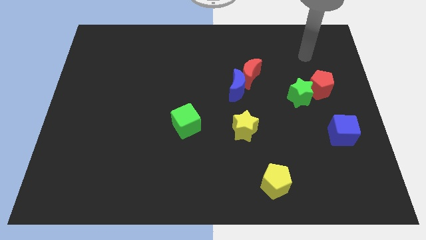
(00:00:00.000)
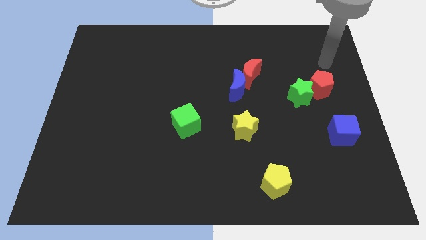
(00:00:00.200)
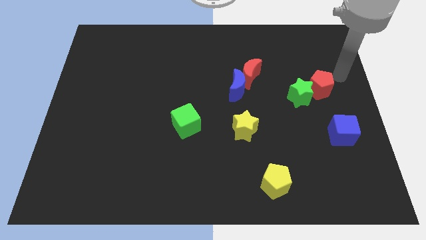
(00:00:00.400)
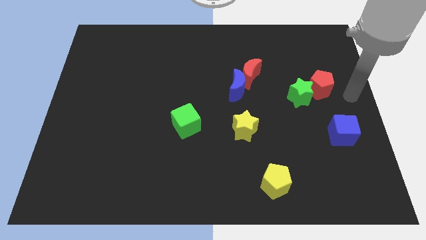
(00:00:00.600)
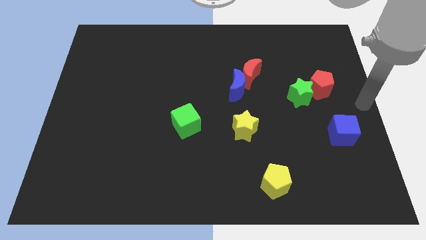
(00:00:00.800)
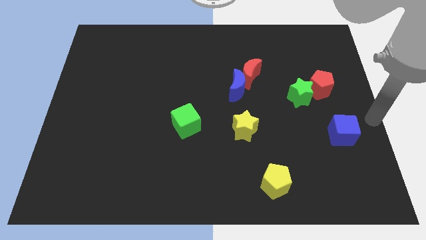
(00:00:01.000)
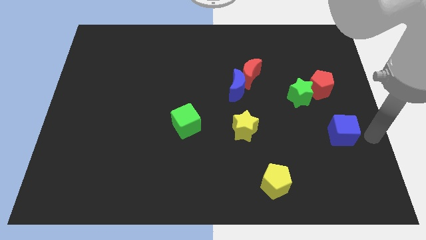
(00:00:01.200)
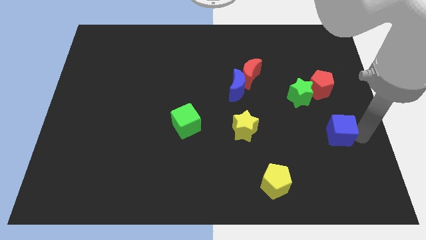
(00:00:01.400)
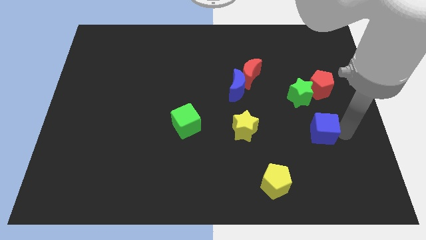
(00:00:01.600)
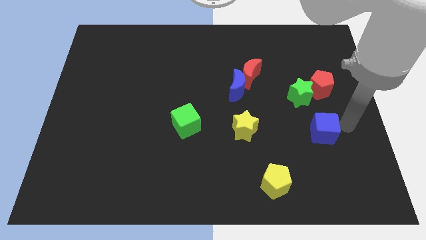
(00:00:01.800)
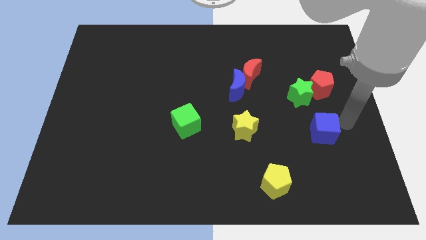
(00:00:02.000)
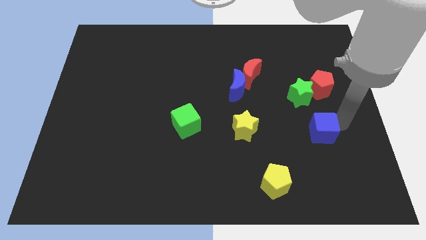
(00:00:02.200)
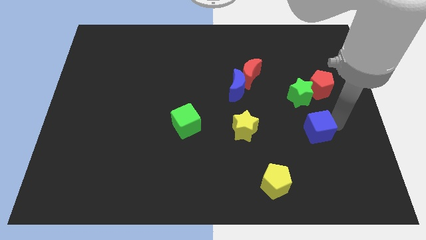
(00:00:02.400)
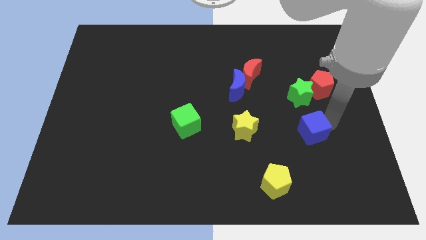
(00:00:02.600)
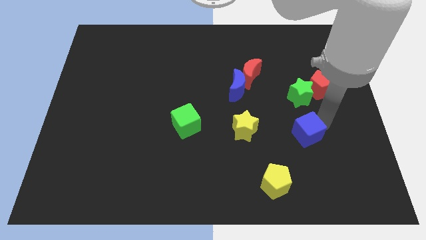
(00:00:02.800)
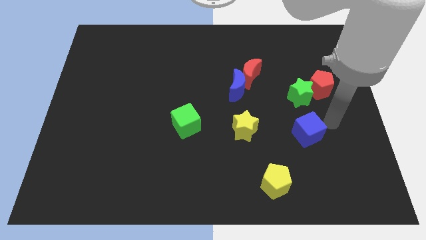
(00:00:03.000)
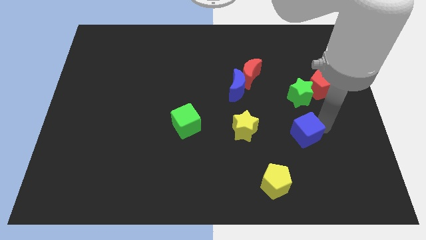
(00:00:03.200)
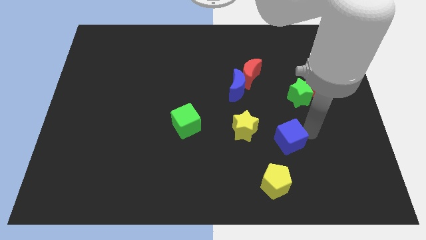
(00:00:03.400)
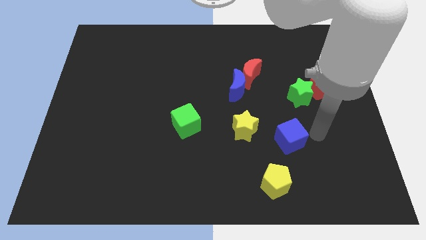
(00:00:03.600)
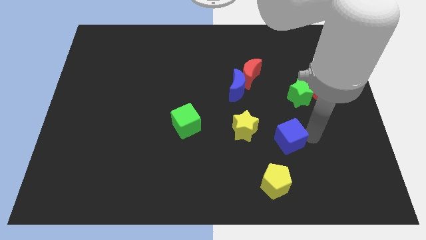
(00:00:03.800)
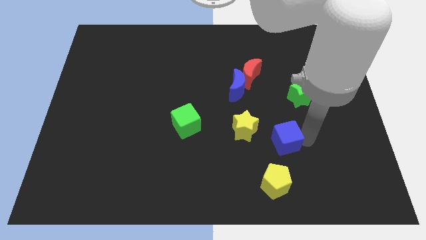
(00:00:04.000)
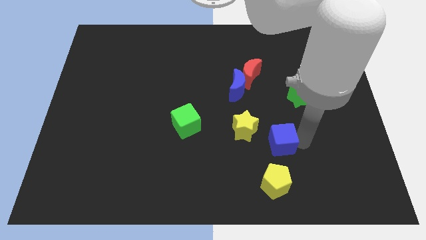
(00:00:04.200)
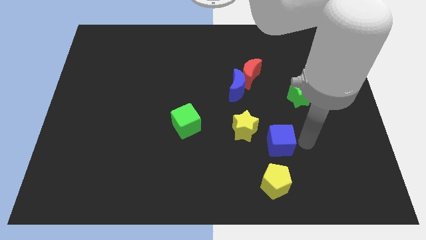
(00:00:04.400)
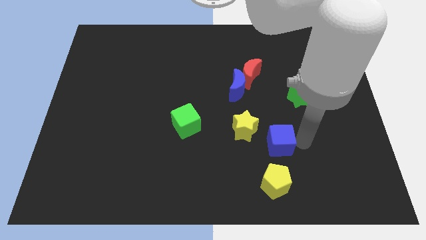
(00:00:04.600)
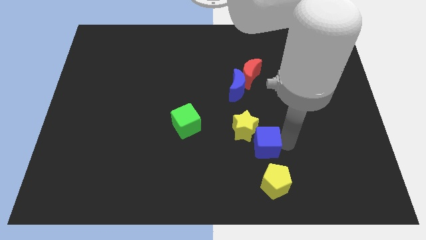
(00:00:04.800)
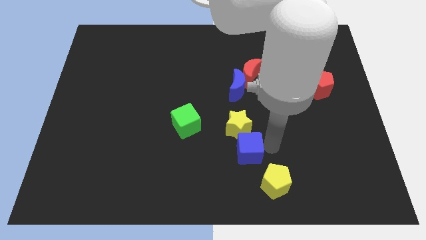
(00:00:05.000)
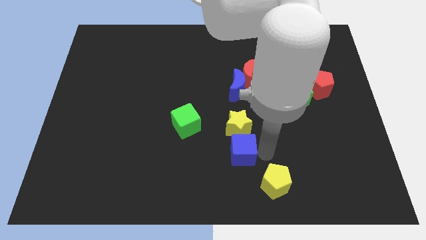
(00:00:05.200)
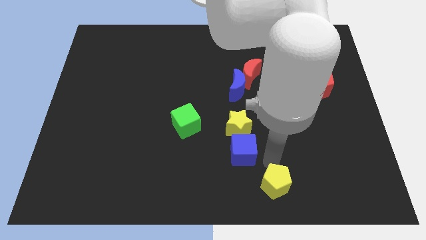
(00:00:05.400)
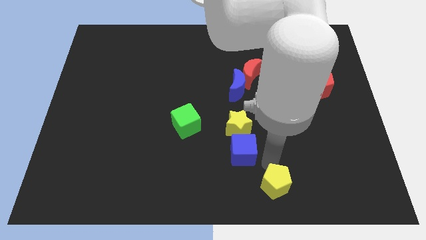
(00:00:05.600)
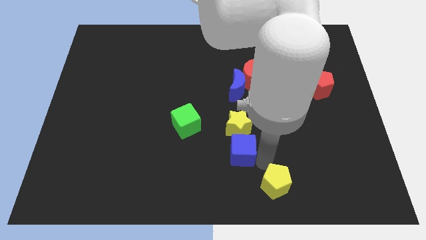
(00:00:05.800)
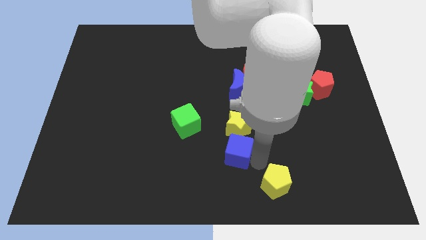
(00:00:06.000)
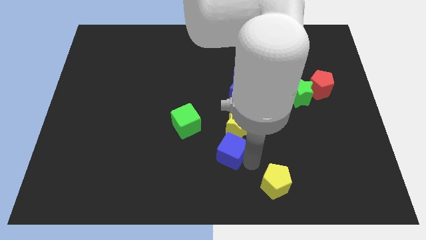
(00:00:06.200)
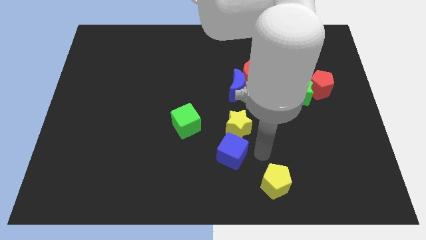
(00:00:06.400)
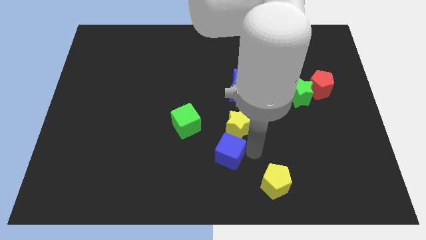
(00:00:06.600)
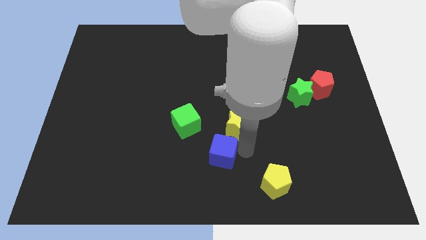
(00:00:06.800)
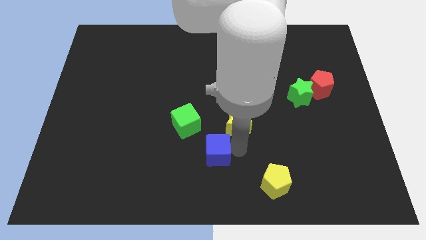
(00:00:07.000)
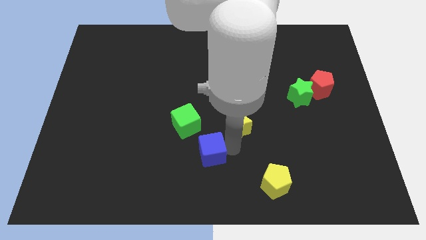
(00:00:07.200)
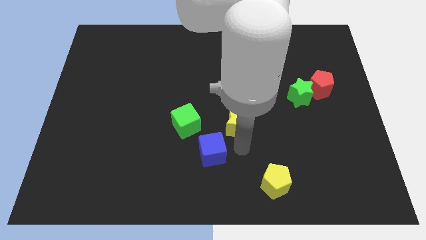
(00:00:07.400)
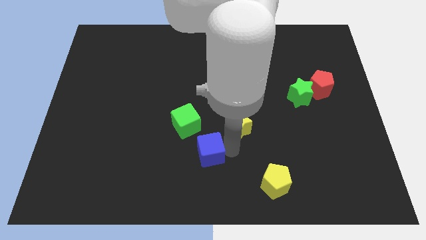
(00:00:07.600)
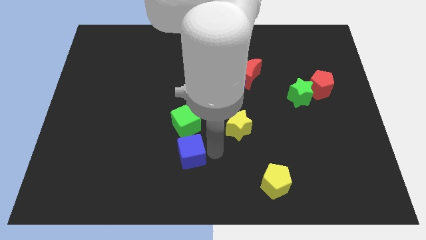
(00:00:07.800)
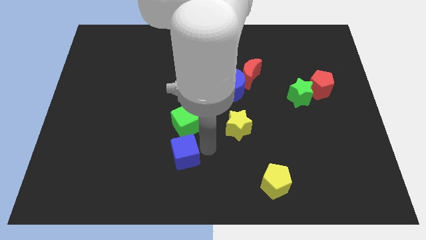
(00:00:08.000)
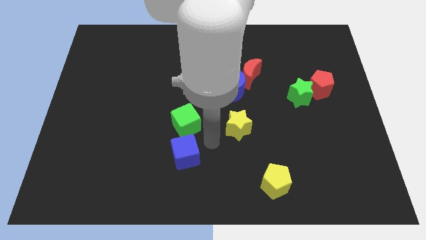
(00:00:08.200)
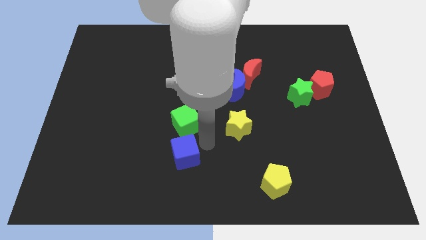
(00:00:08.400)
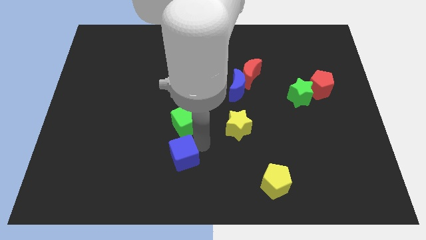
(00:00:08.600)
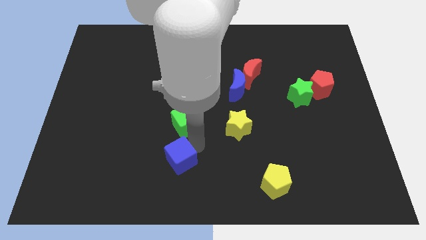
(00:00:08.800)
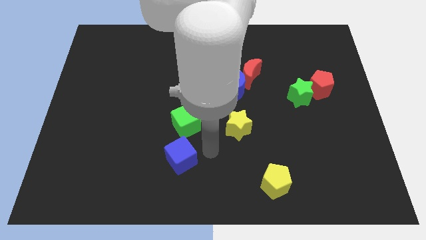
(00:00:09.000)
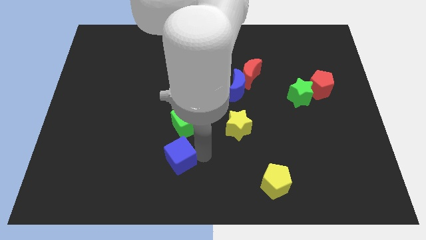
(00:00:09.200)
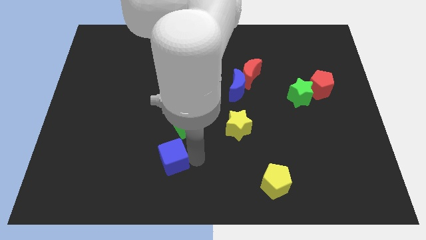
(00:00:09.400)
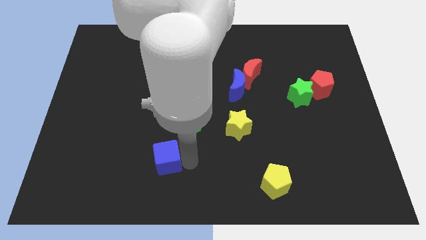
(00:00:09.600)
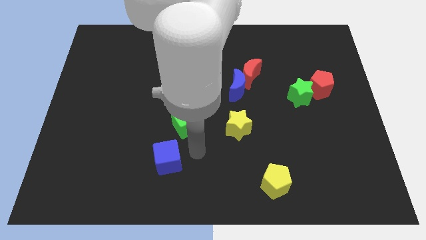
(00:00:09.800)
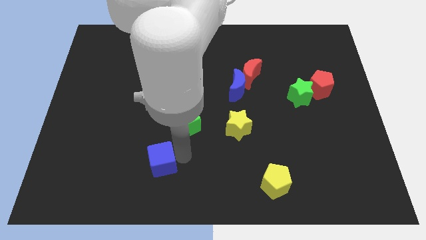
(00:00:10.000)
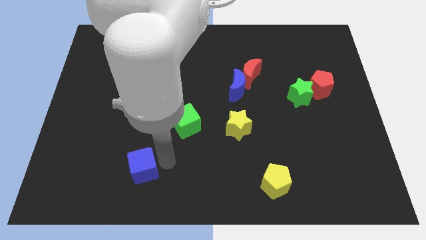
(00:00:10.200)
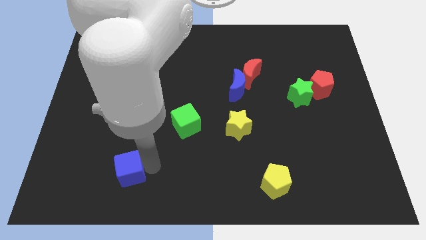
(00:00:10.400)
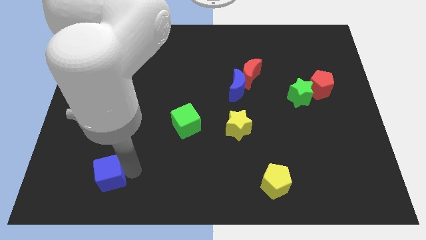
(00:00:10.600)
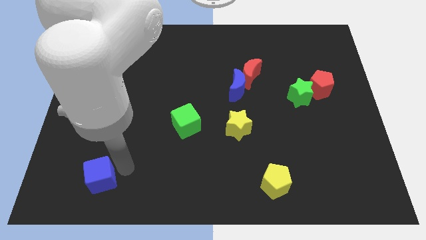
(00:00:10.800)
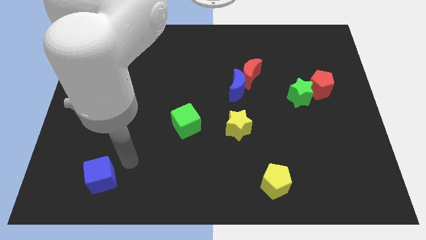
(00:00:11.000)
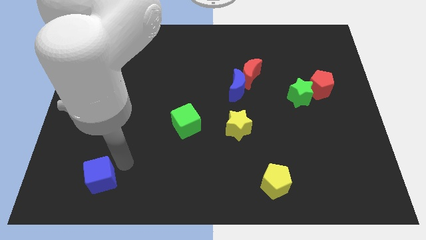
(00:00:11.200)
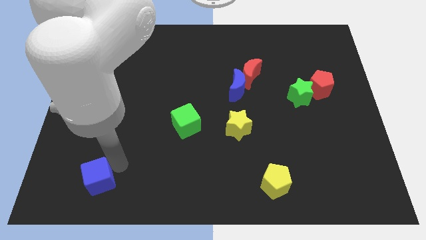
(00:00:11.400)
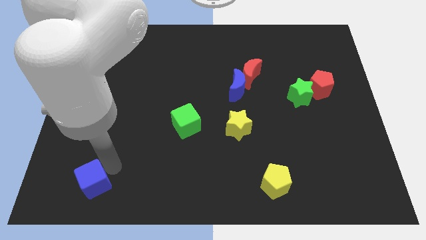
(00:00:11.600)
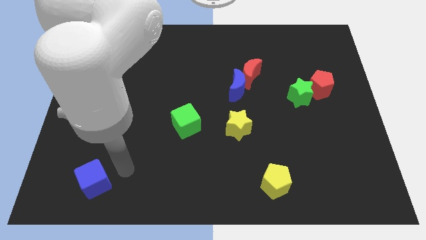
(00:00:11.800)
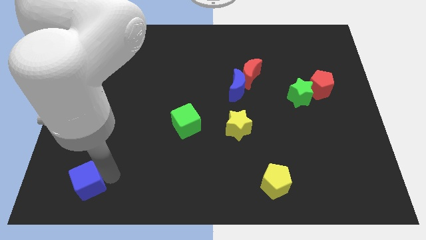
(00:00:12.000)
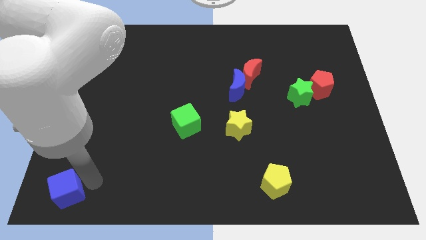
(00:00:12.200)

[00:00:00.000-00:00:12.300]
put the blue cube to the bottom left

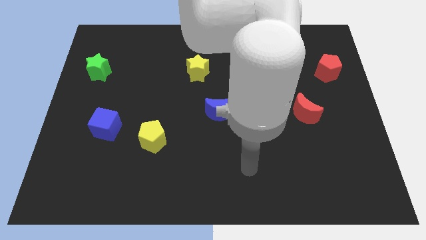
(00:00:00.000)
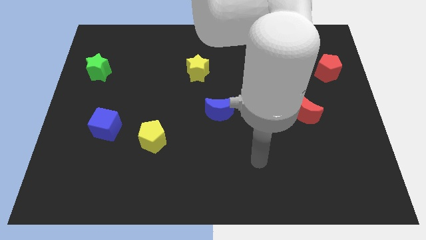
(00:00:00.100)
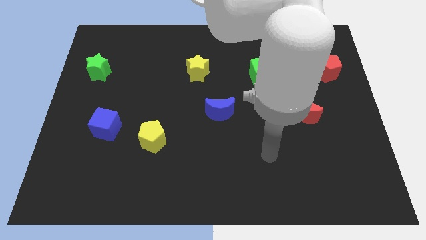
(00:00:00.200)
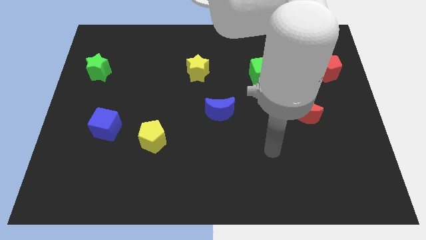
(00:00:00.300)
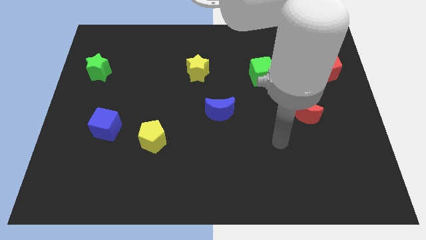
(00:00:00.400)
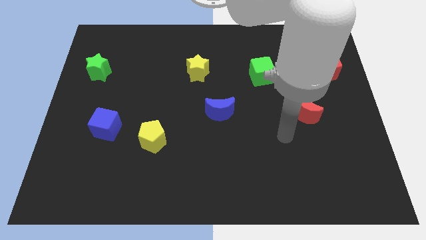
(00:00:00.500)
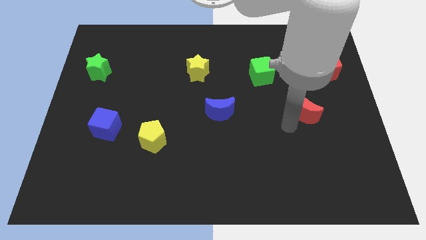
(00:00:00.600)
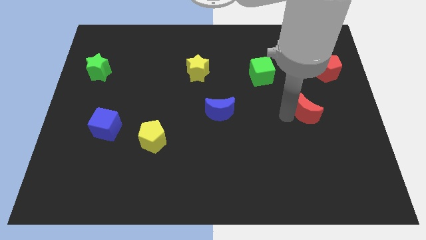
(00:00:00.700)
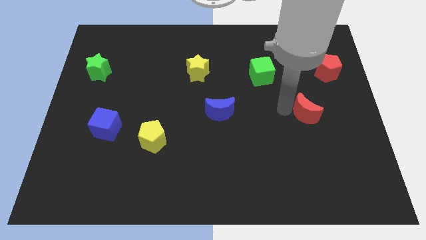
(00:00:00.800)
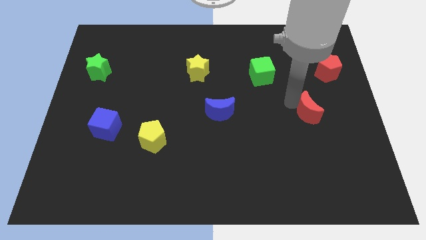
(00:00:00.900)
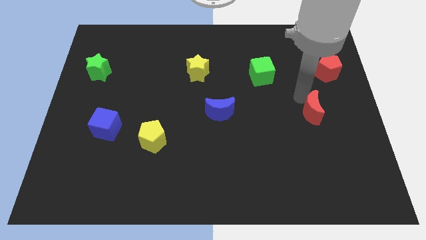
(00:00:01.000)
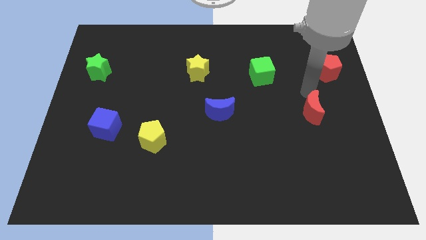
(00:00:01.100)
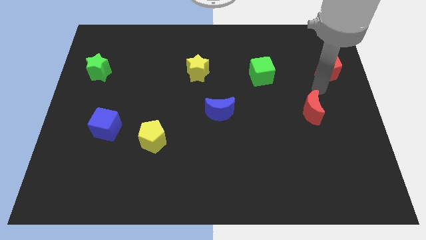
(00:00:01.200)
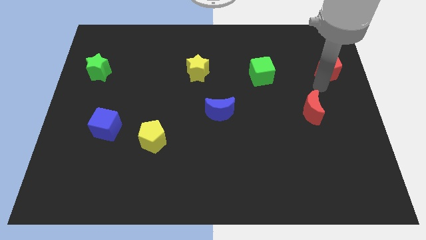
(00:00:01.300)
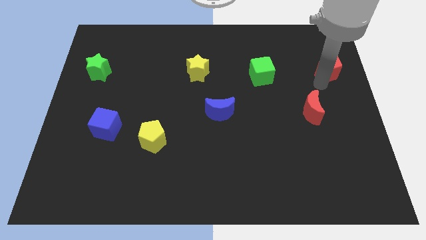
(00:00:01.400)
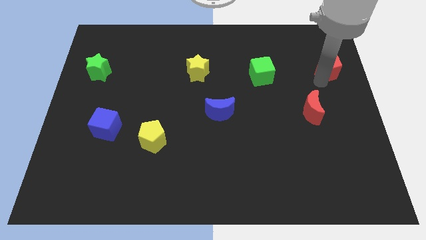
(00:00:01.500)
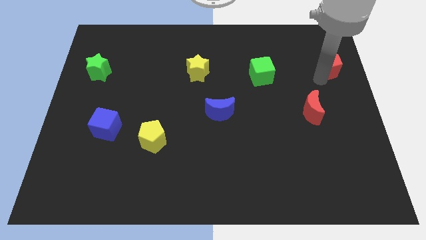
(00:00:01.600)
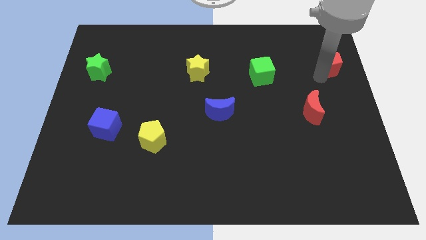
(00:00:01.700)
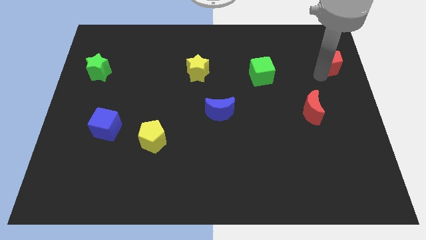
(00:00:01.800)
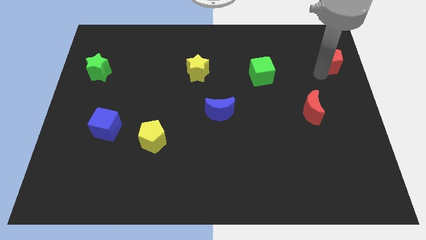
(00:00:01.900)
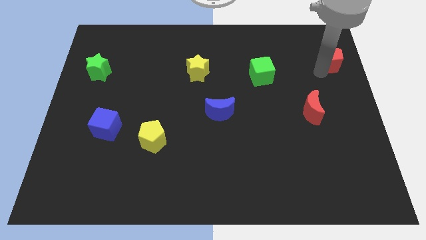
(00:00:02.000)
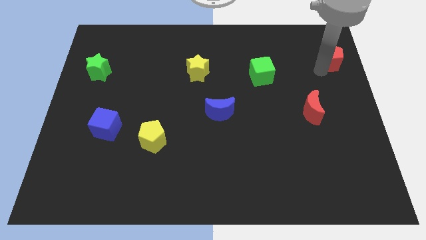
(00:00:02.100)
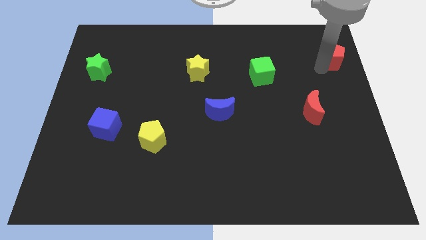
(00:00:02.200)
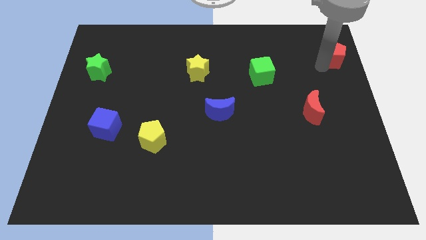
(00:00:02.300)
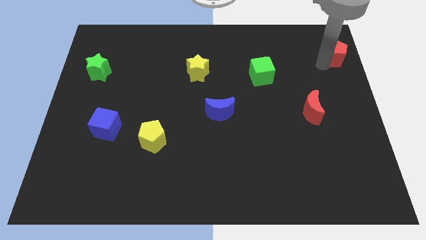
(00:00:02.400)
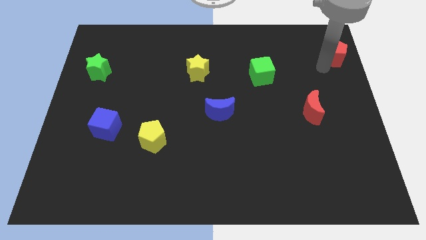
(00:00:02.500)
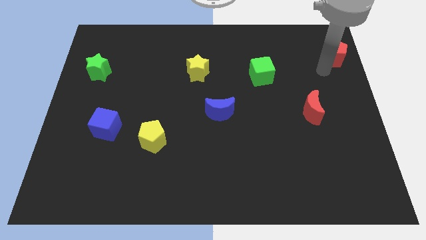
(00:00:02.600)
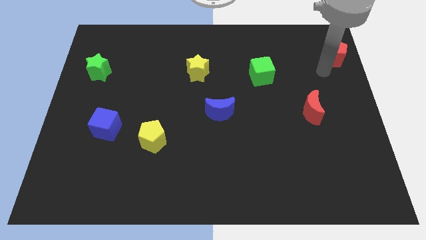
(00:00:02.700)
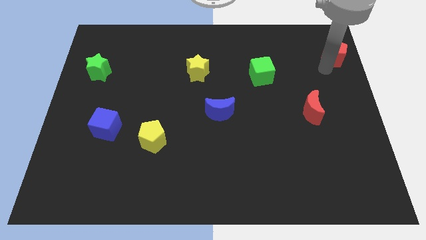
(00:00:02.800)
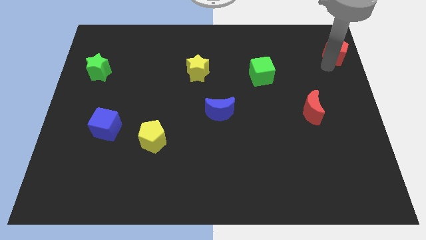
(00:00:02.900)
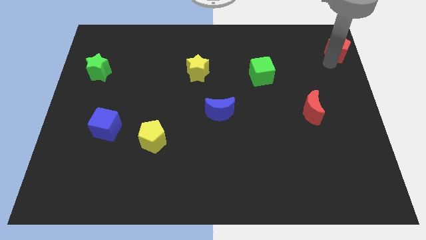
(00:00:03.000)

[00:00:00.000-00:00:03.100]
slide the red pentagon to the top right corner
